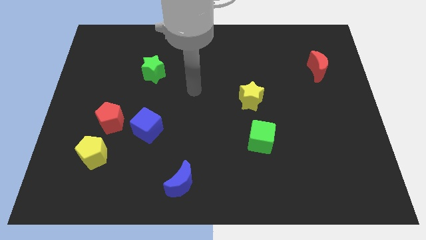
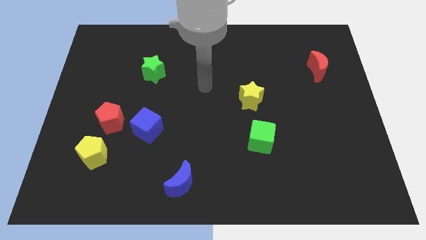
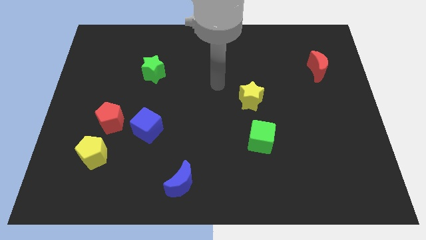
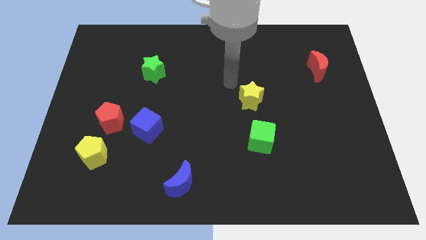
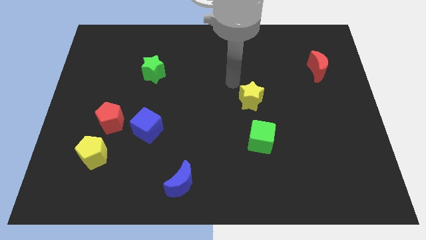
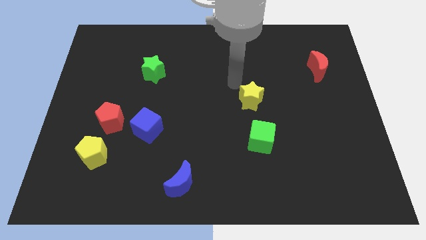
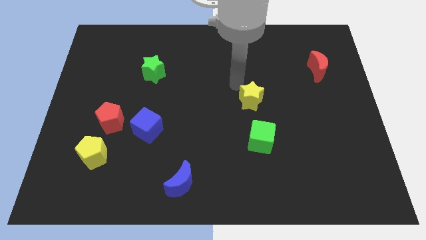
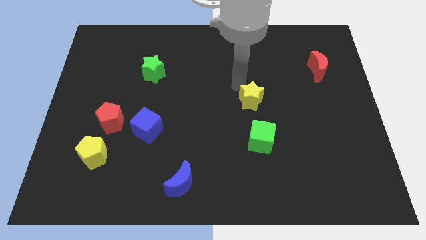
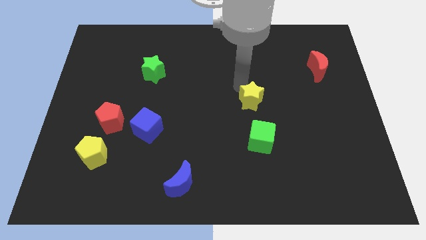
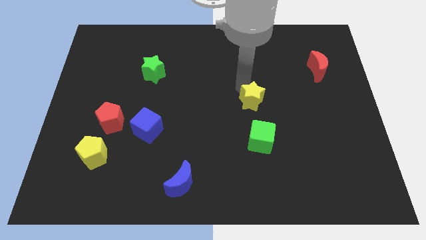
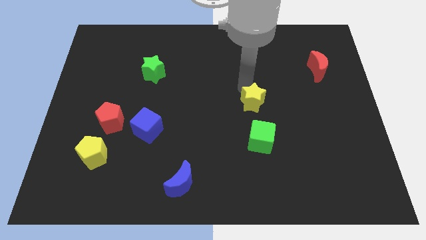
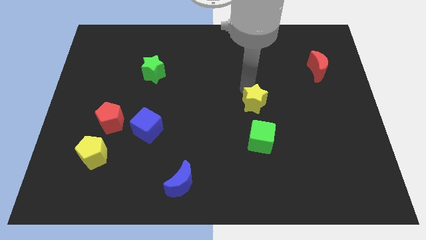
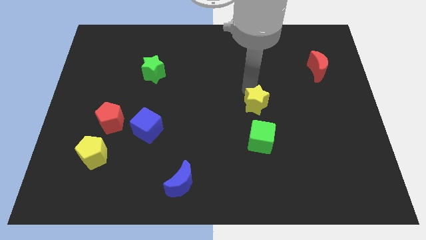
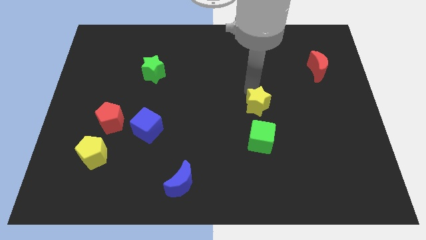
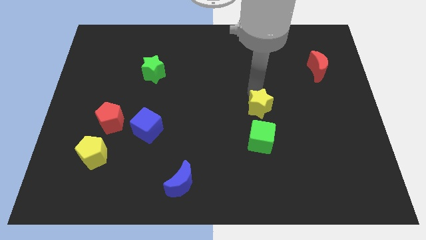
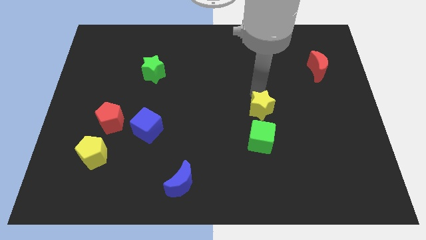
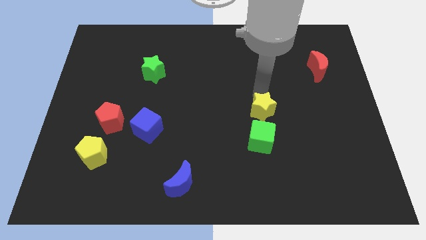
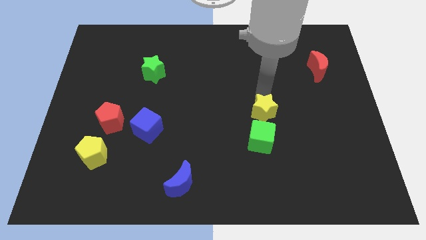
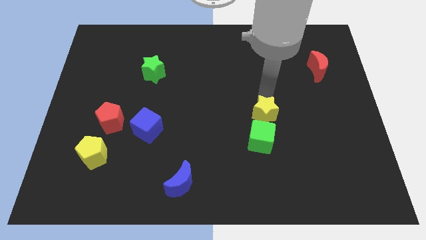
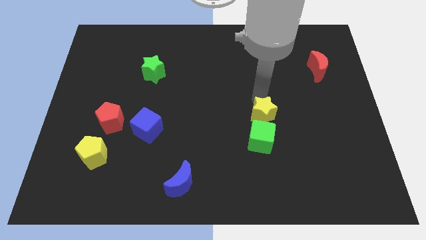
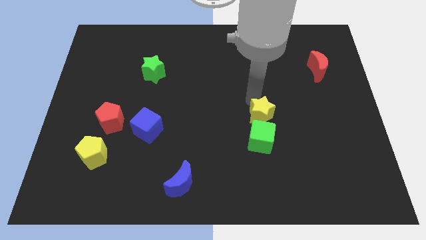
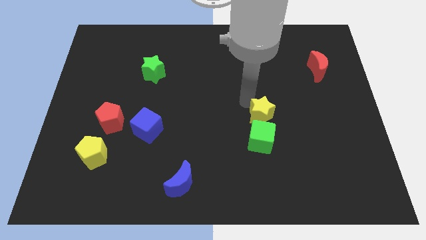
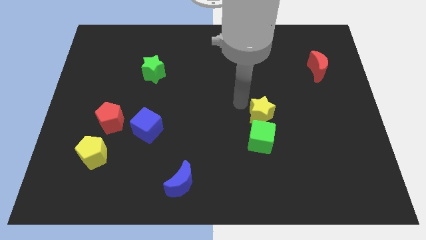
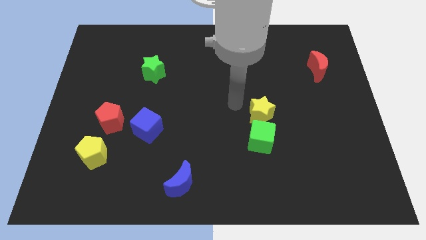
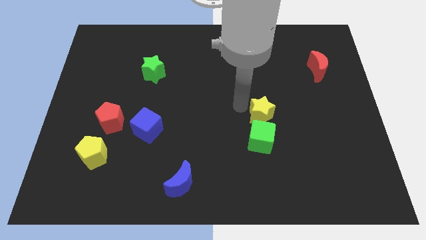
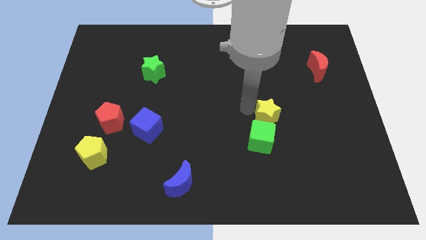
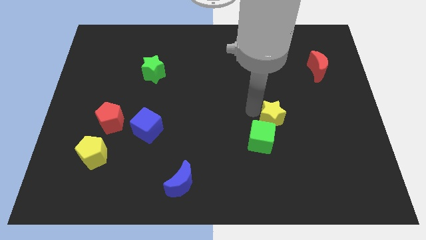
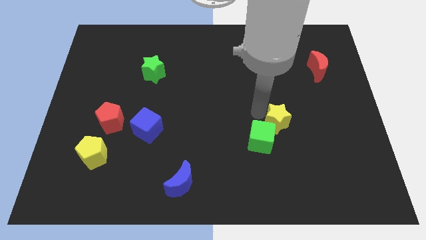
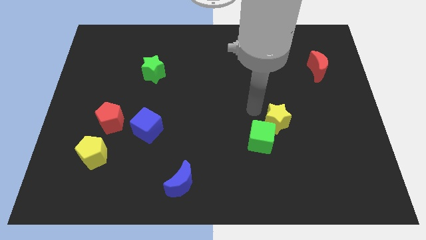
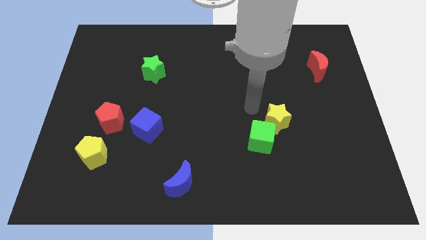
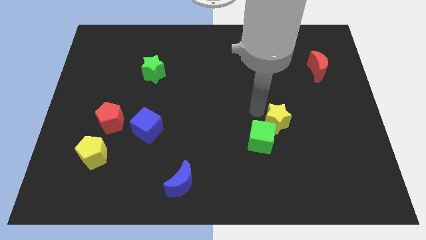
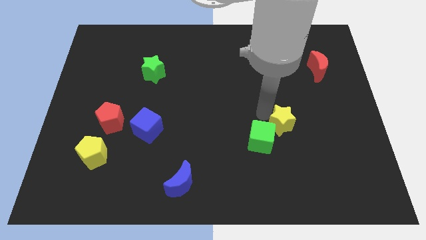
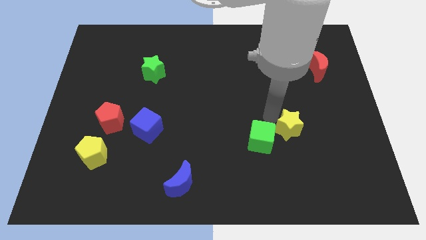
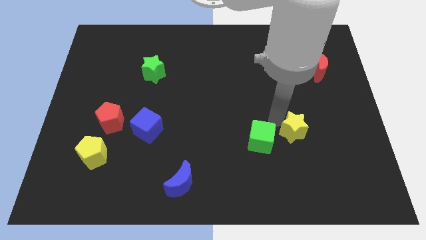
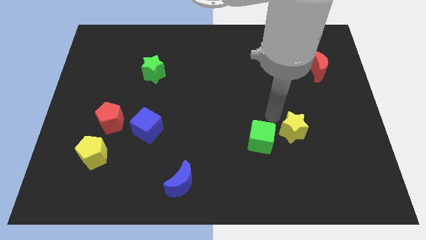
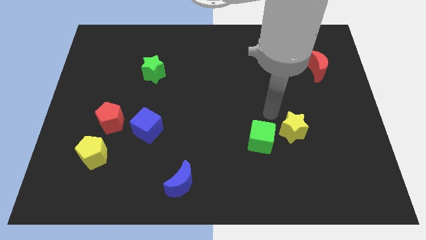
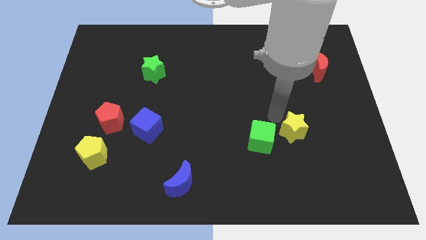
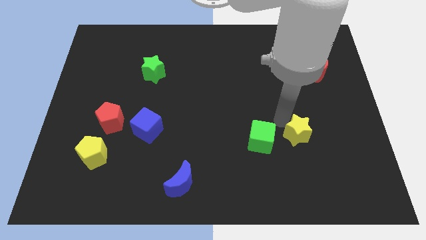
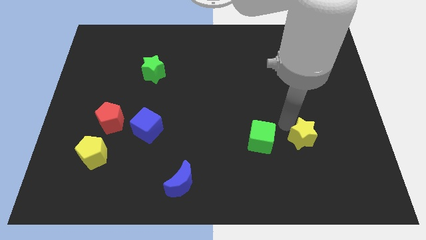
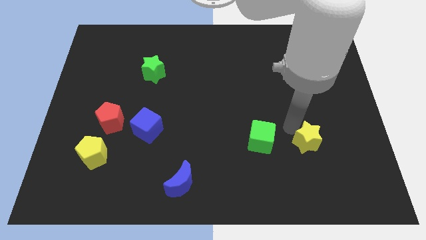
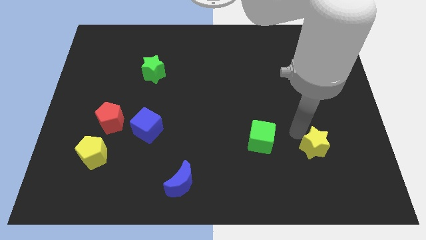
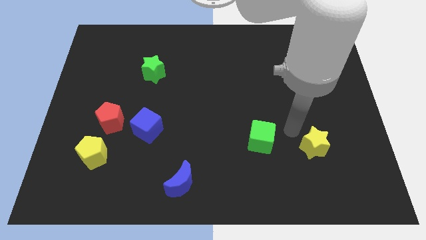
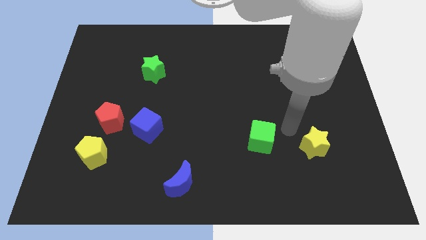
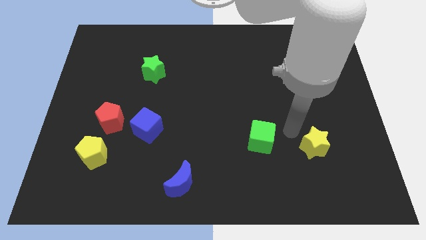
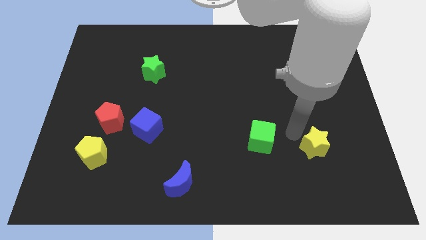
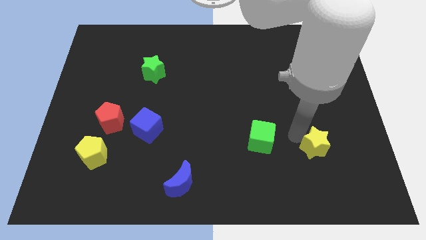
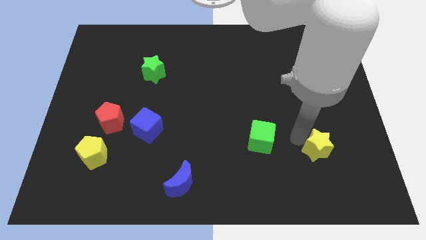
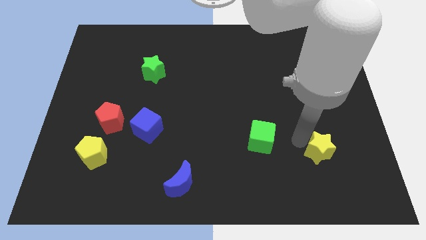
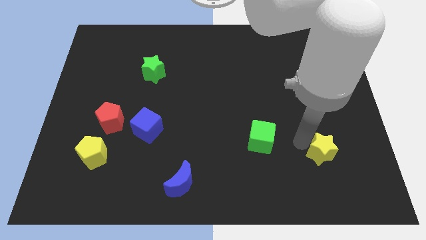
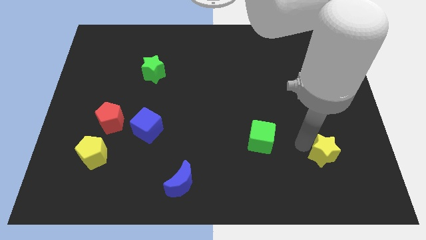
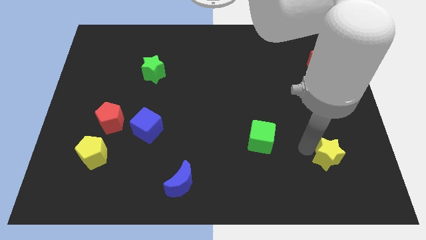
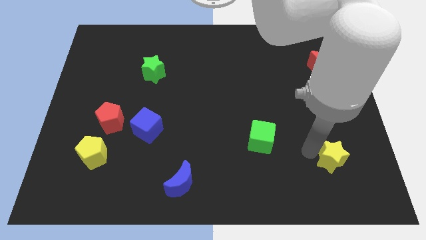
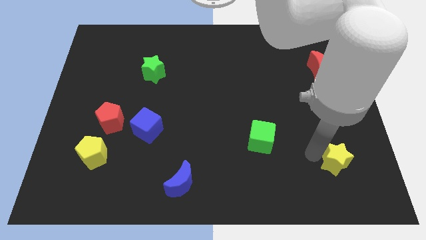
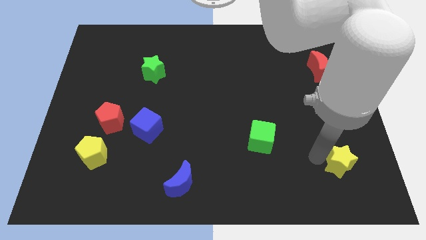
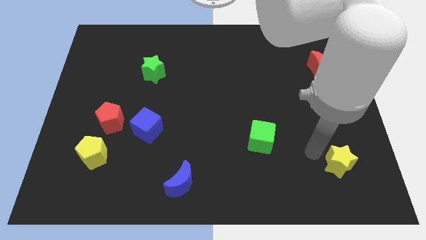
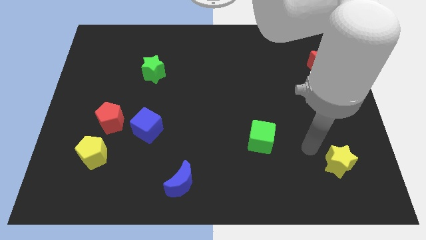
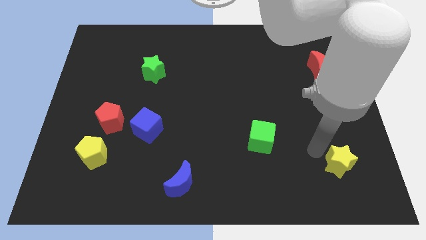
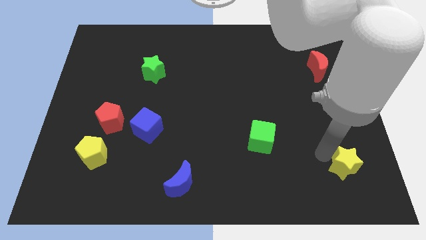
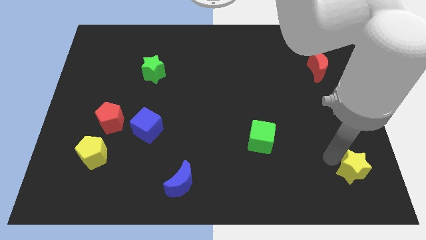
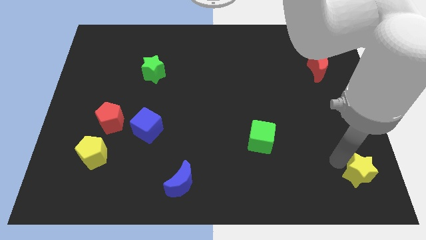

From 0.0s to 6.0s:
slide the yellow star to the lower right corner
